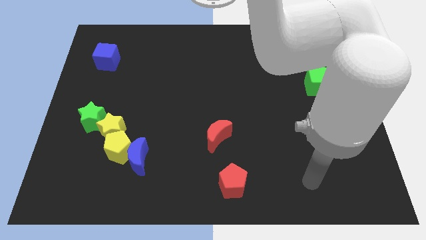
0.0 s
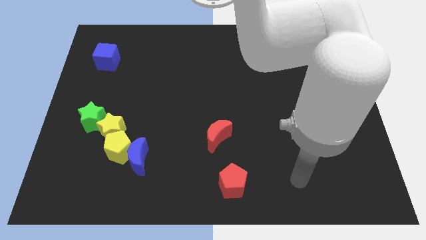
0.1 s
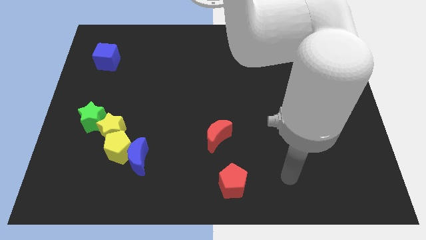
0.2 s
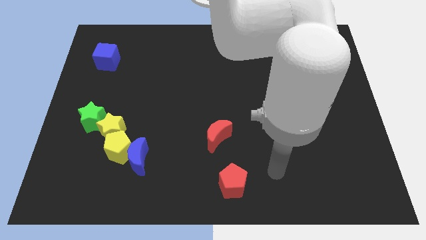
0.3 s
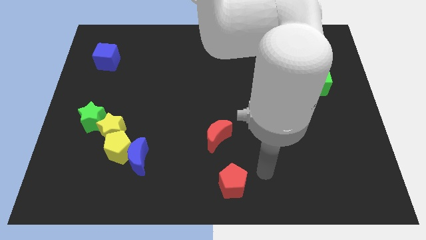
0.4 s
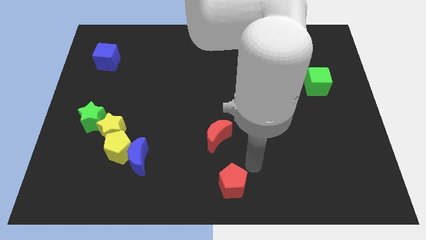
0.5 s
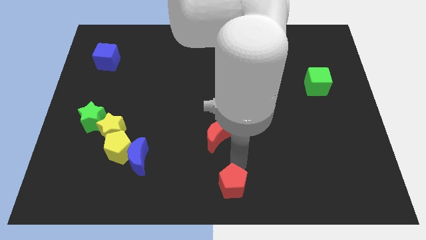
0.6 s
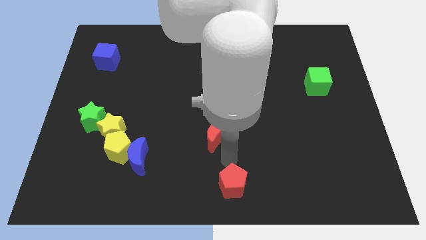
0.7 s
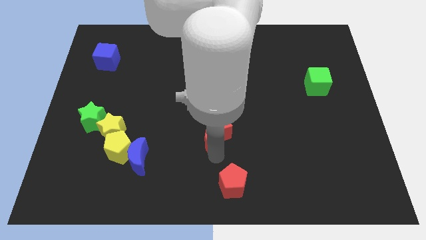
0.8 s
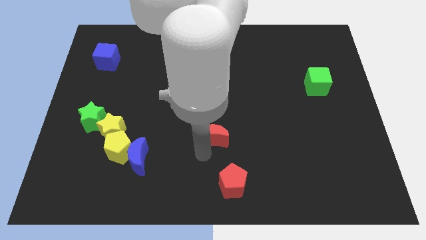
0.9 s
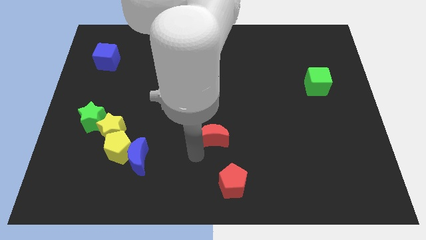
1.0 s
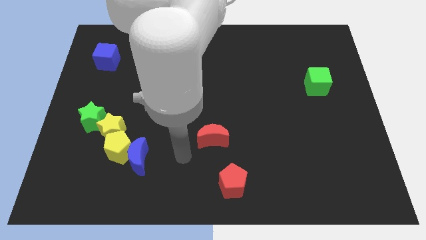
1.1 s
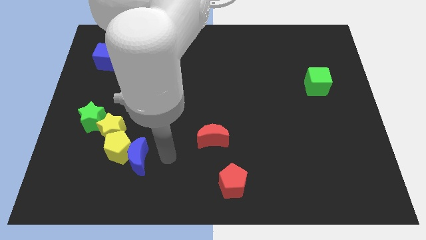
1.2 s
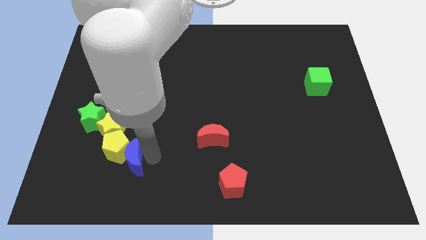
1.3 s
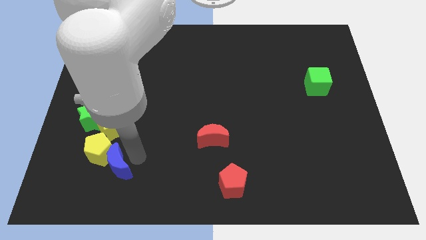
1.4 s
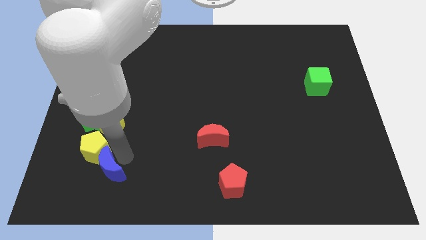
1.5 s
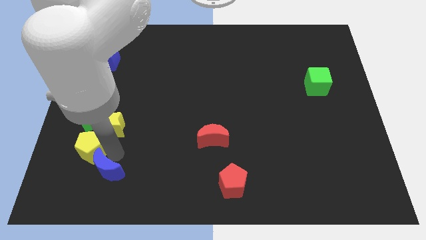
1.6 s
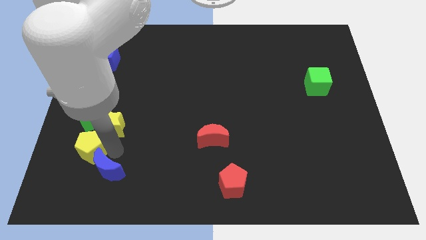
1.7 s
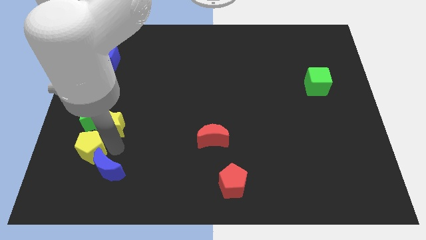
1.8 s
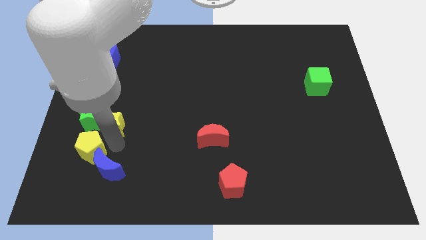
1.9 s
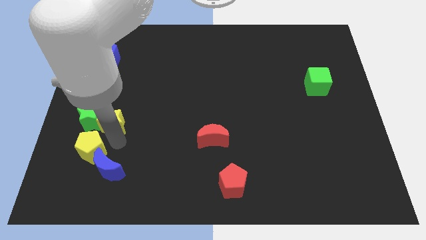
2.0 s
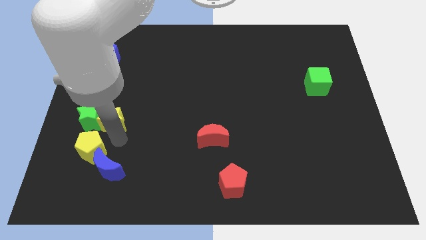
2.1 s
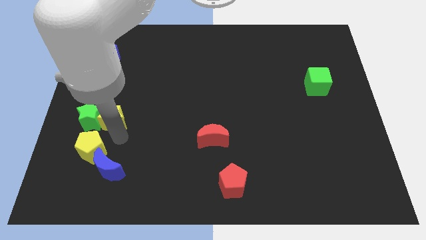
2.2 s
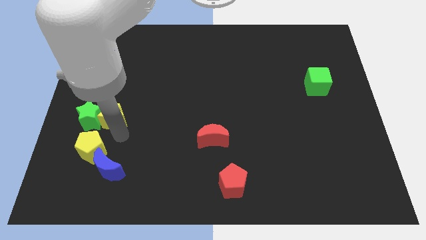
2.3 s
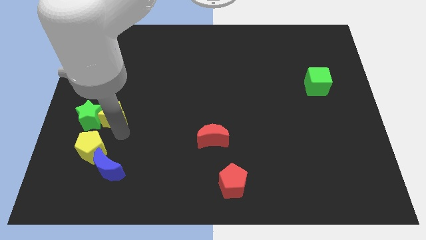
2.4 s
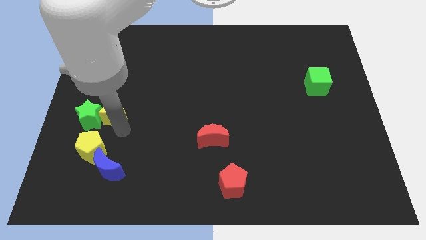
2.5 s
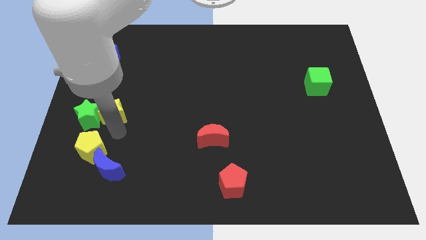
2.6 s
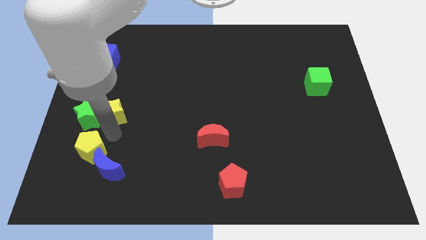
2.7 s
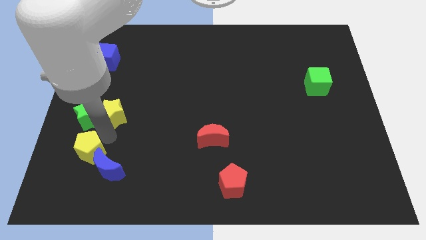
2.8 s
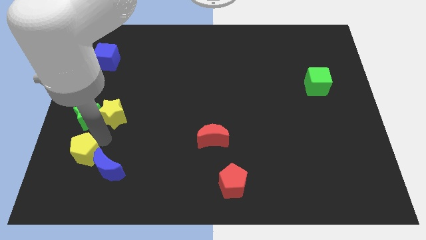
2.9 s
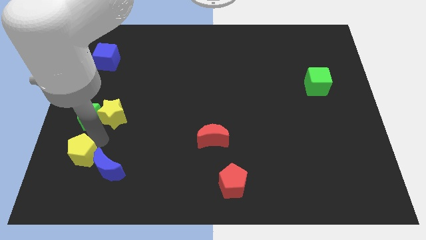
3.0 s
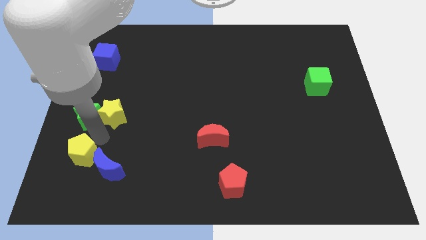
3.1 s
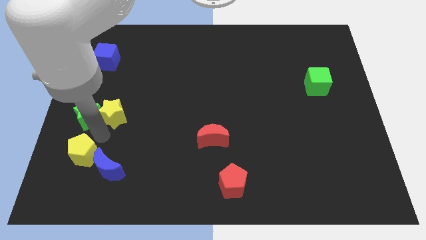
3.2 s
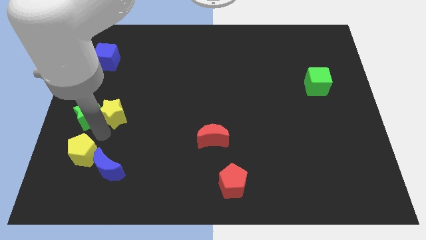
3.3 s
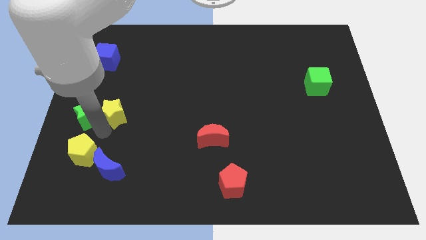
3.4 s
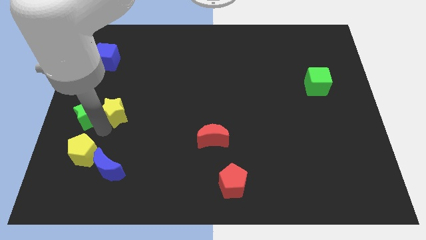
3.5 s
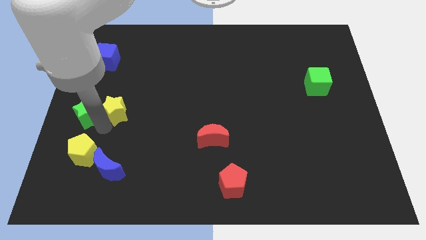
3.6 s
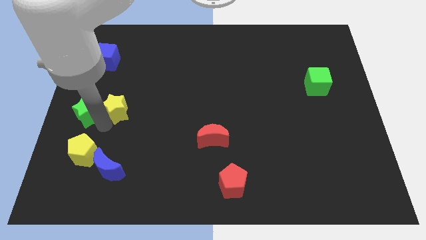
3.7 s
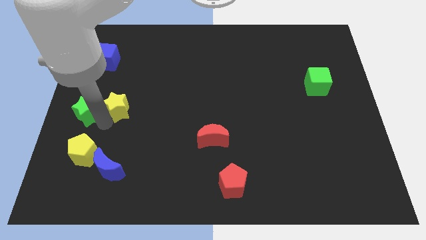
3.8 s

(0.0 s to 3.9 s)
separate the yellow star from the group of blocks

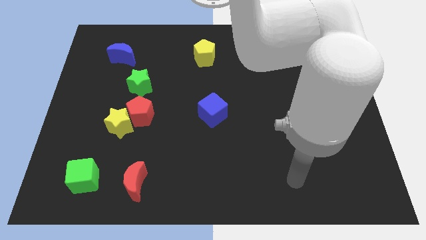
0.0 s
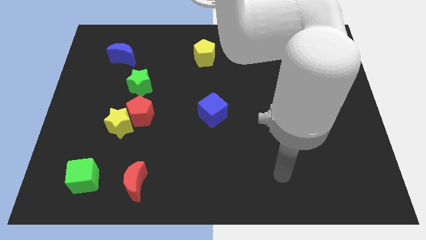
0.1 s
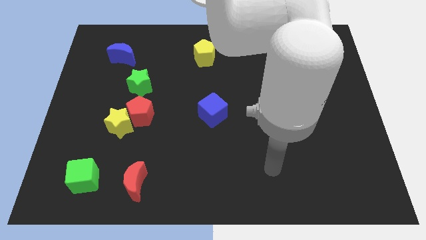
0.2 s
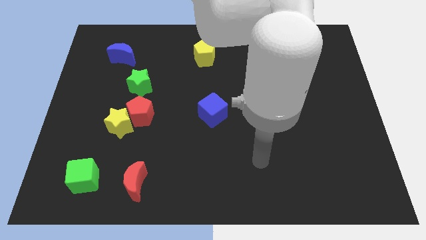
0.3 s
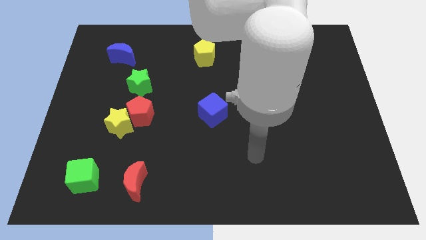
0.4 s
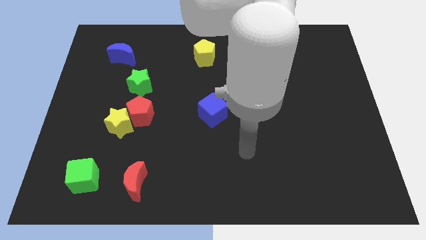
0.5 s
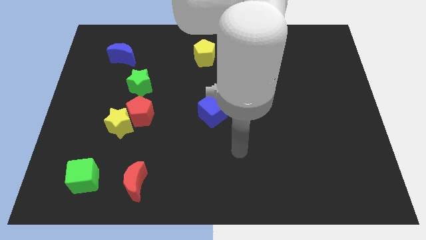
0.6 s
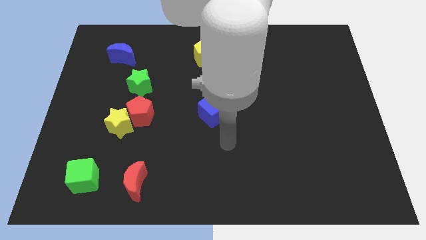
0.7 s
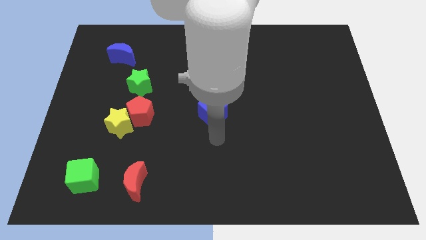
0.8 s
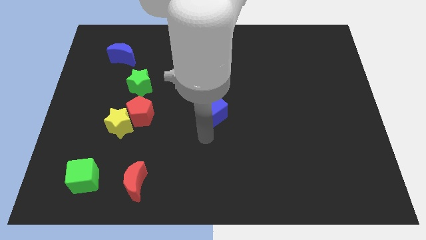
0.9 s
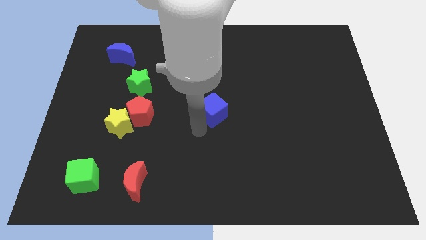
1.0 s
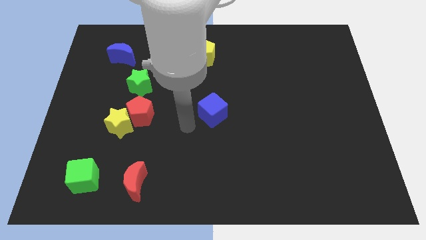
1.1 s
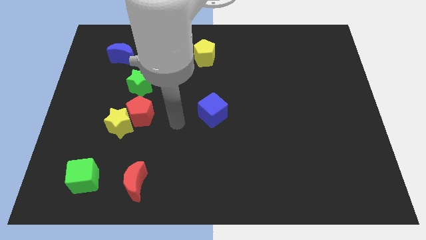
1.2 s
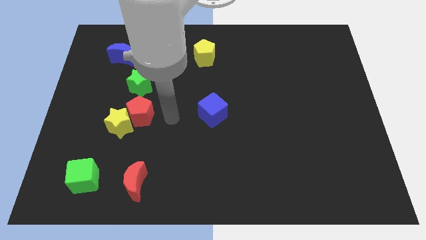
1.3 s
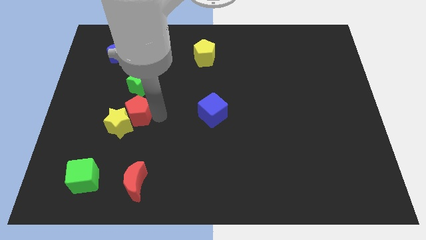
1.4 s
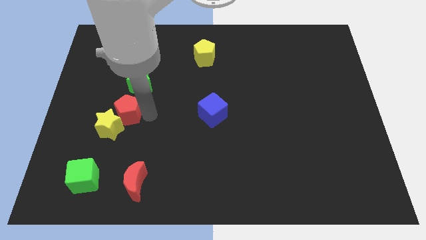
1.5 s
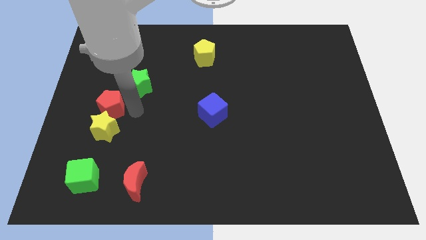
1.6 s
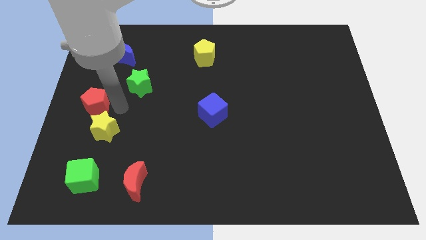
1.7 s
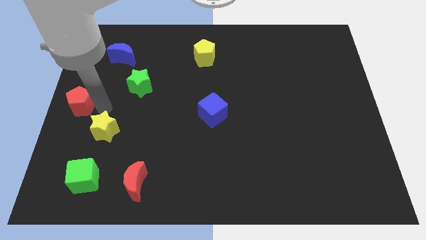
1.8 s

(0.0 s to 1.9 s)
pull the yellow star apart from the red pentagon

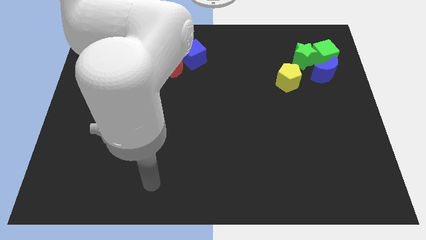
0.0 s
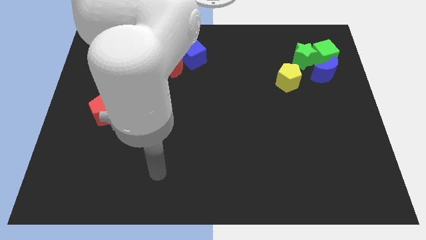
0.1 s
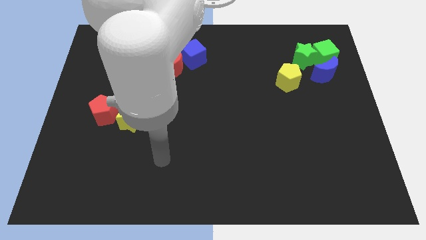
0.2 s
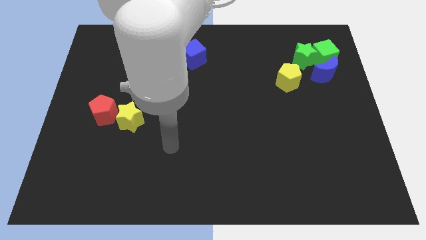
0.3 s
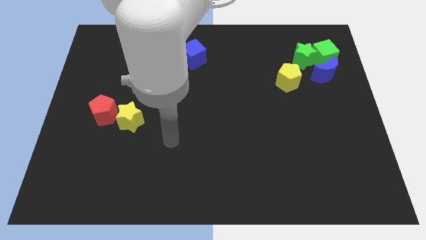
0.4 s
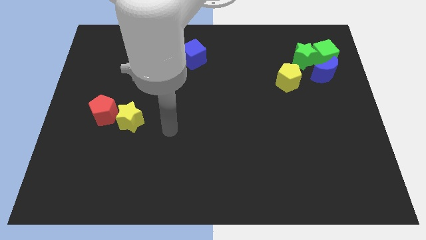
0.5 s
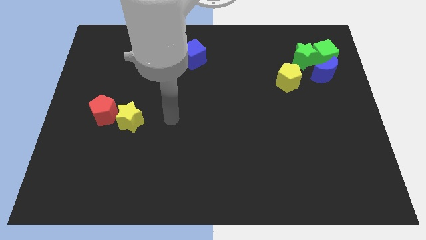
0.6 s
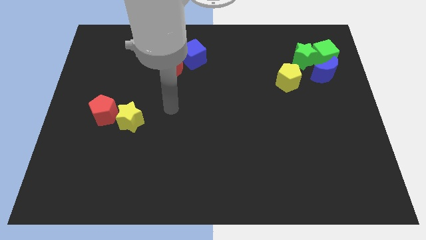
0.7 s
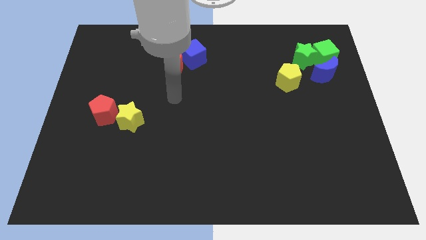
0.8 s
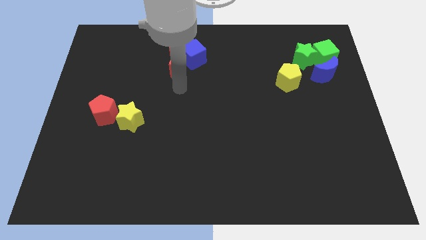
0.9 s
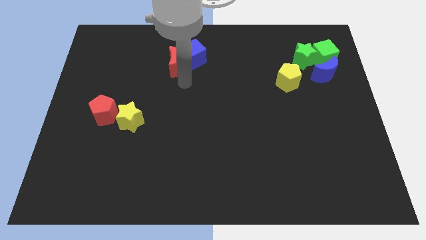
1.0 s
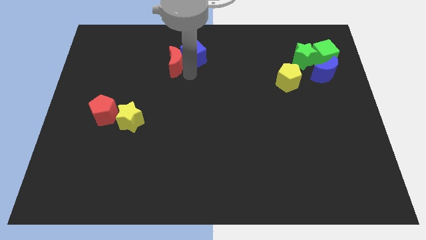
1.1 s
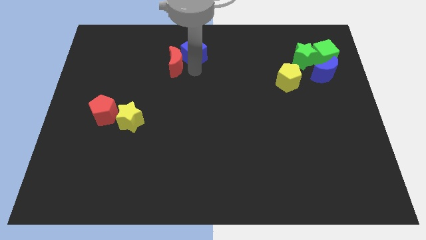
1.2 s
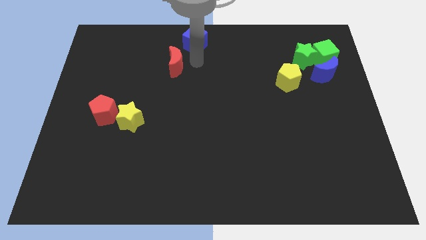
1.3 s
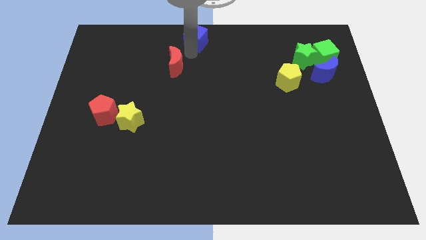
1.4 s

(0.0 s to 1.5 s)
move the red moon away from the blue cube

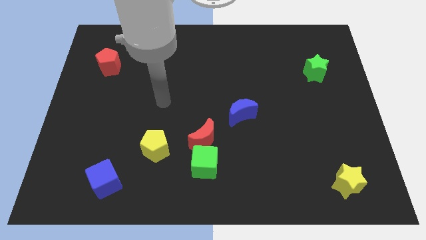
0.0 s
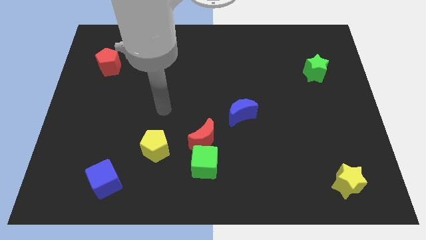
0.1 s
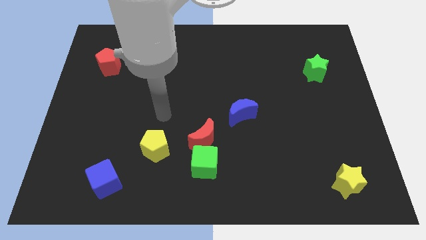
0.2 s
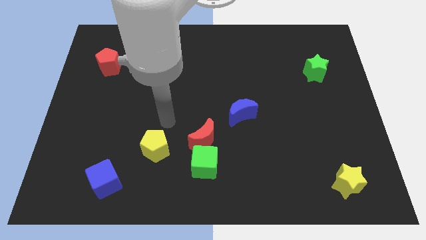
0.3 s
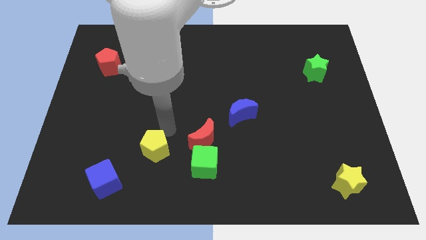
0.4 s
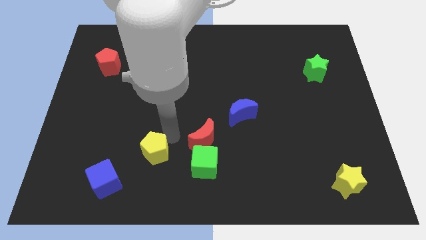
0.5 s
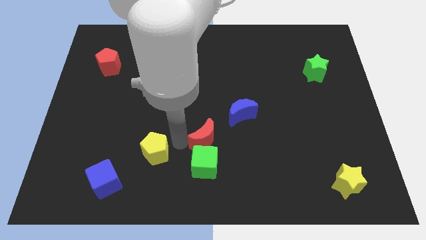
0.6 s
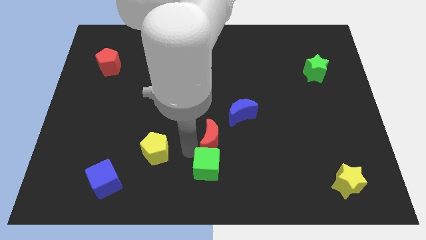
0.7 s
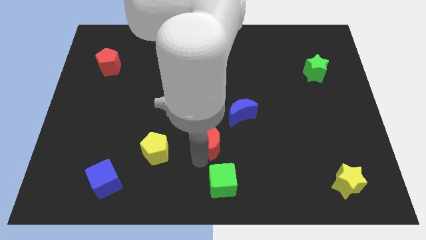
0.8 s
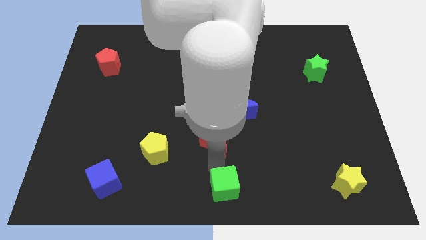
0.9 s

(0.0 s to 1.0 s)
move the red moon away from the green cube

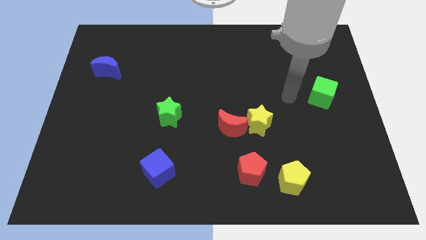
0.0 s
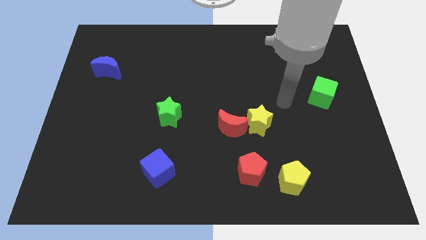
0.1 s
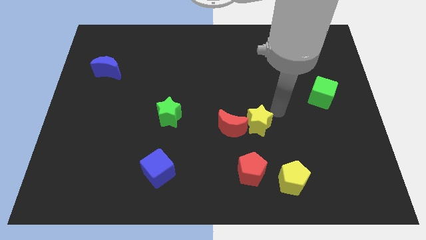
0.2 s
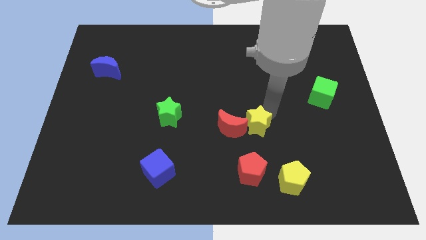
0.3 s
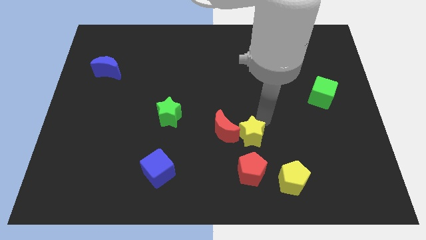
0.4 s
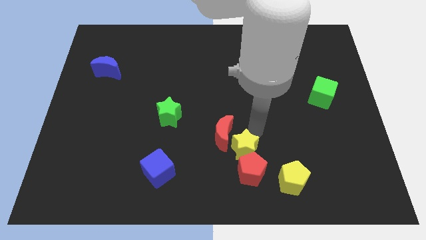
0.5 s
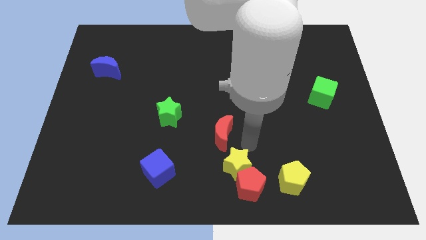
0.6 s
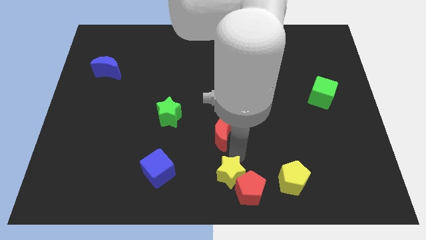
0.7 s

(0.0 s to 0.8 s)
move the red moon away from the yellow star

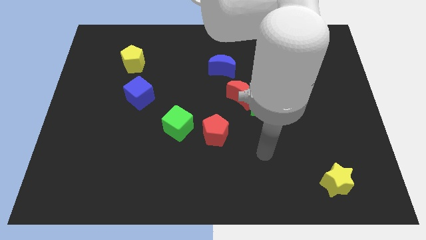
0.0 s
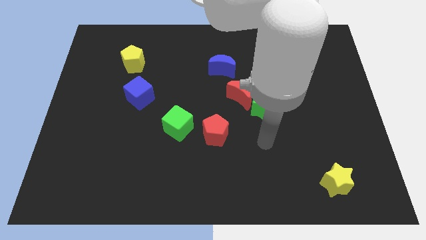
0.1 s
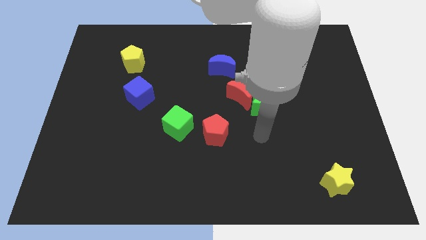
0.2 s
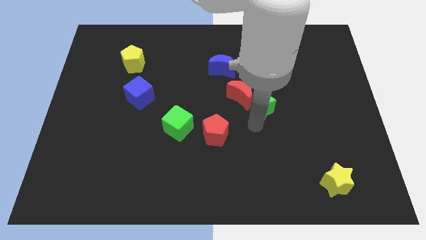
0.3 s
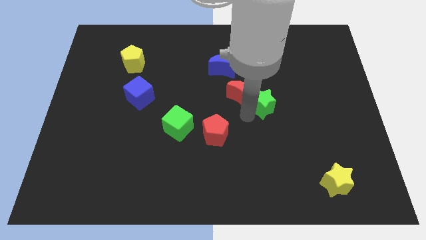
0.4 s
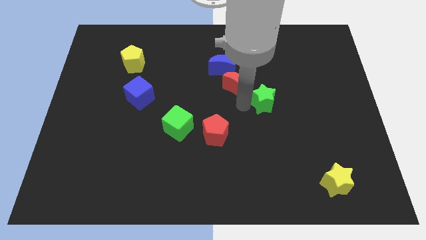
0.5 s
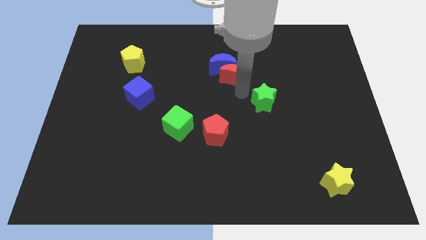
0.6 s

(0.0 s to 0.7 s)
pull the green star apart from the red moon
